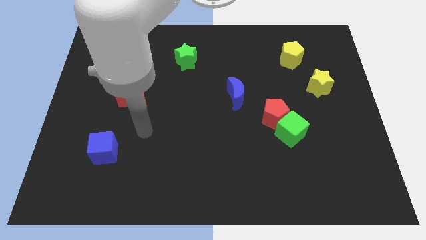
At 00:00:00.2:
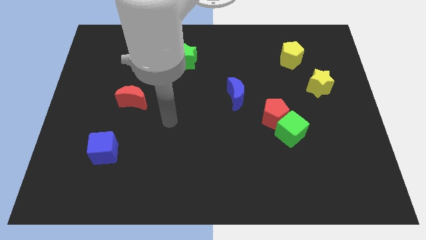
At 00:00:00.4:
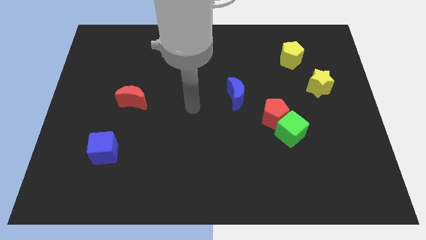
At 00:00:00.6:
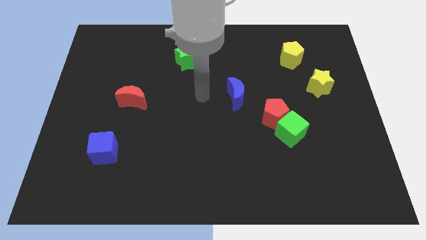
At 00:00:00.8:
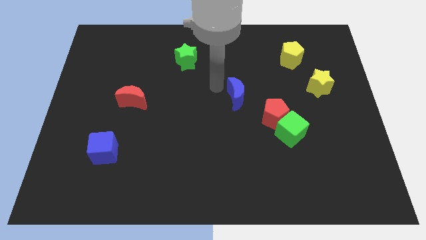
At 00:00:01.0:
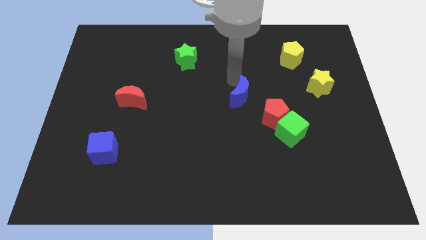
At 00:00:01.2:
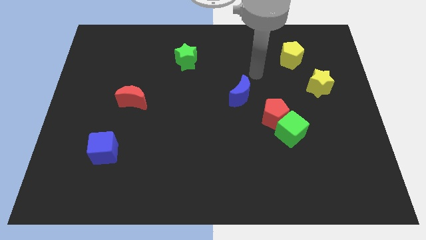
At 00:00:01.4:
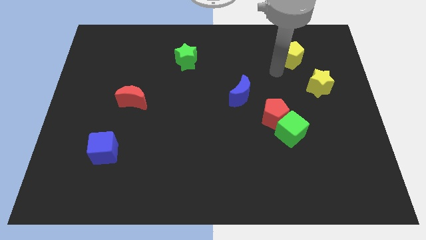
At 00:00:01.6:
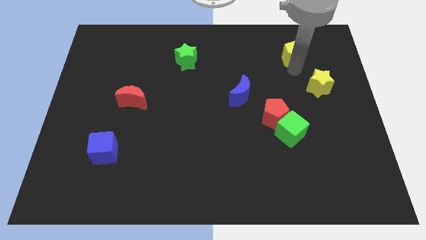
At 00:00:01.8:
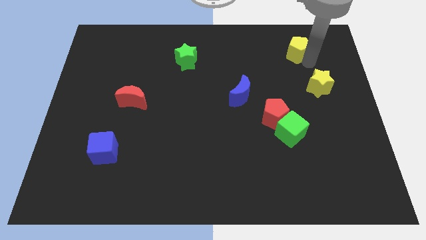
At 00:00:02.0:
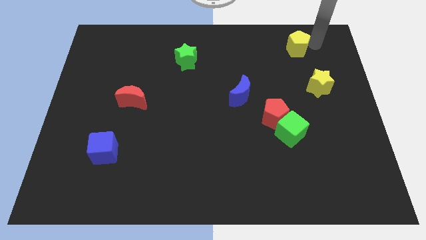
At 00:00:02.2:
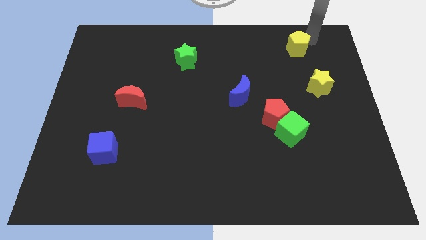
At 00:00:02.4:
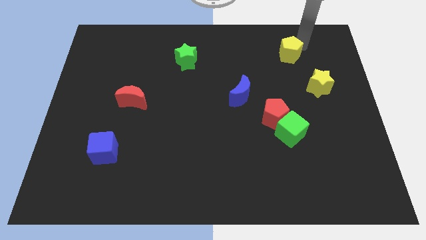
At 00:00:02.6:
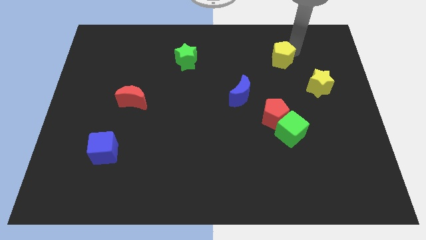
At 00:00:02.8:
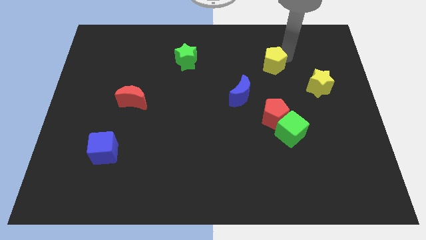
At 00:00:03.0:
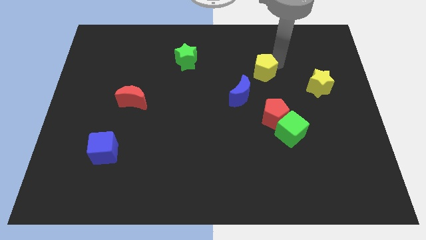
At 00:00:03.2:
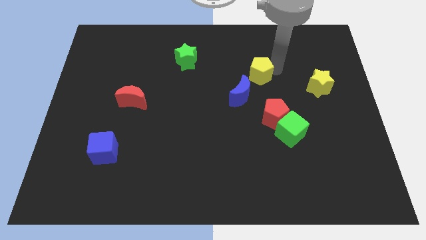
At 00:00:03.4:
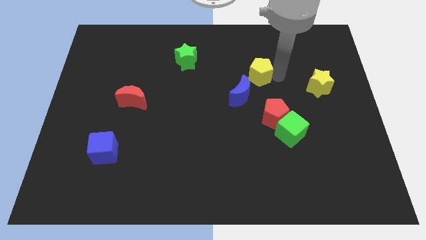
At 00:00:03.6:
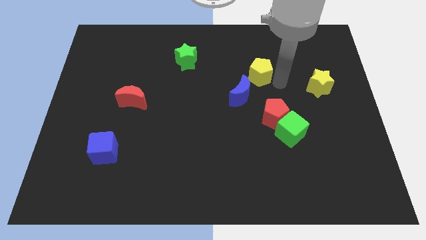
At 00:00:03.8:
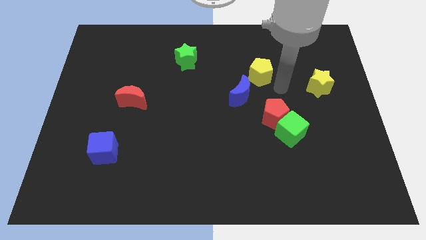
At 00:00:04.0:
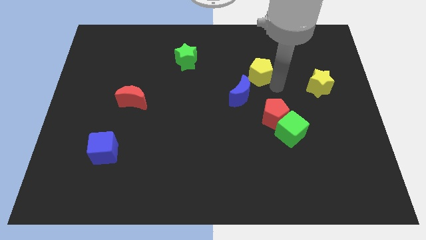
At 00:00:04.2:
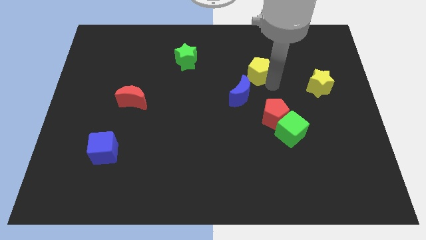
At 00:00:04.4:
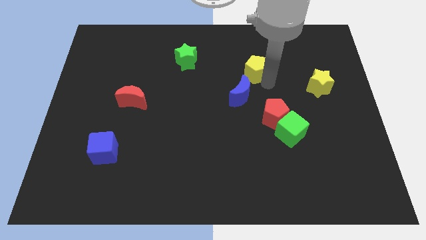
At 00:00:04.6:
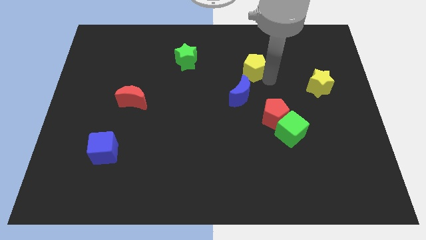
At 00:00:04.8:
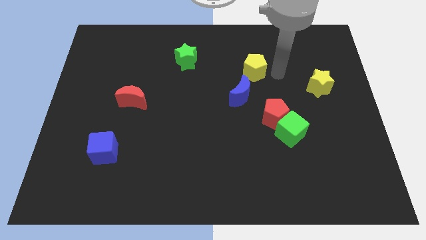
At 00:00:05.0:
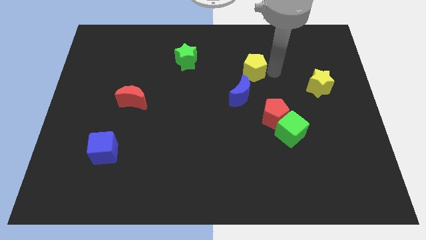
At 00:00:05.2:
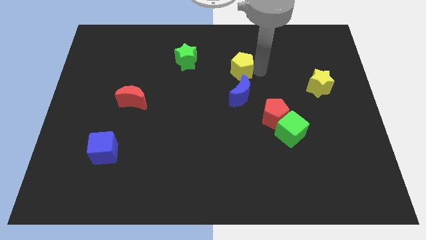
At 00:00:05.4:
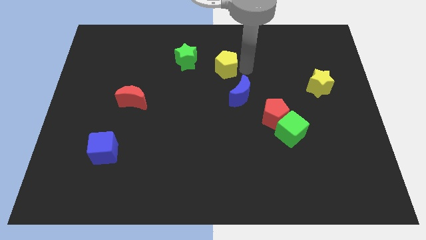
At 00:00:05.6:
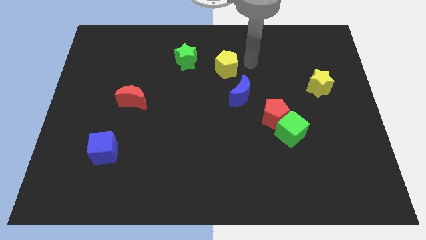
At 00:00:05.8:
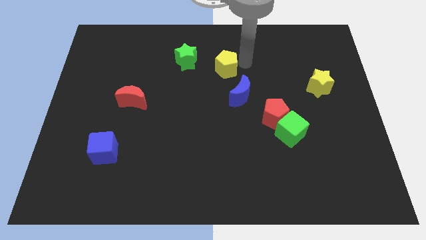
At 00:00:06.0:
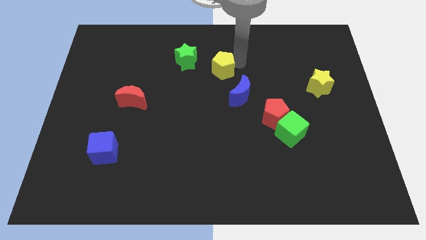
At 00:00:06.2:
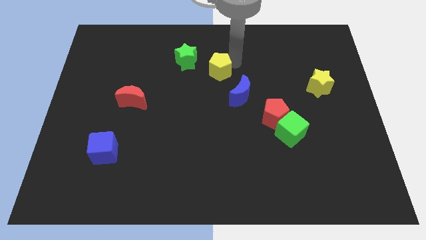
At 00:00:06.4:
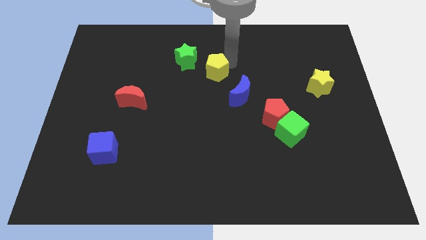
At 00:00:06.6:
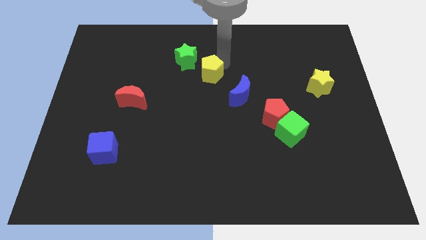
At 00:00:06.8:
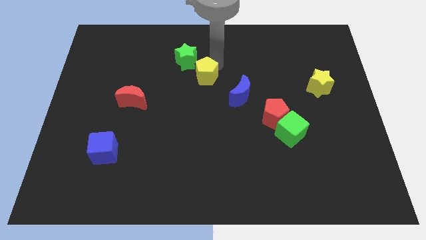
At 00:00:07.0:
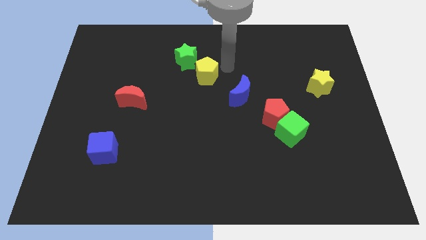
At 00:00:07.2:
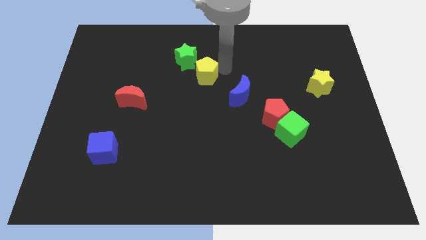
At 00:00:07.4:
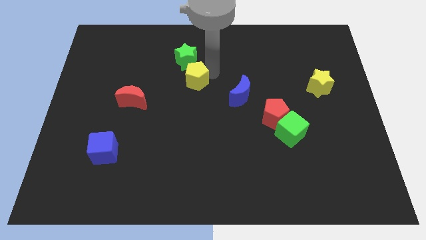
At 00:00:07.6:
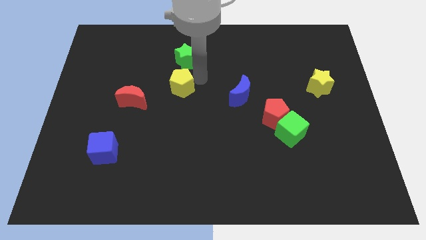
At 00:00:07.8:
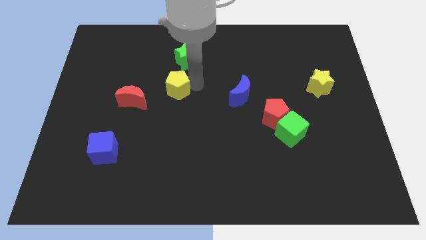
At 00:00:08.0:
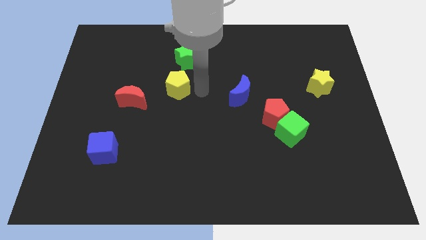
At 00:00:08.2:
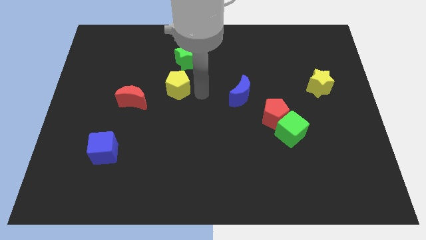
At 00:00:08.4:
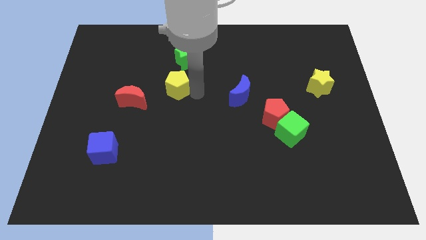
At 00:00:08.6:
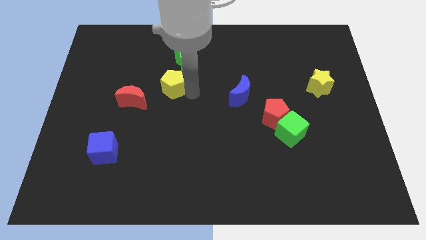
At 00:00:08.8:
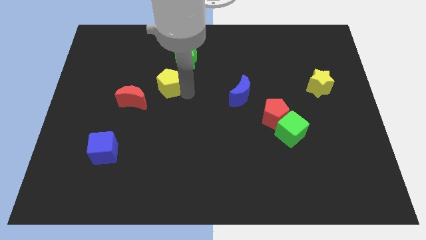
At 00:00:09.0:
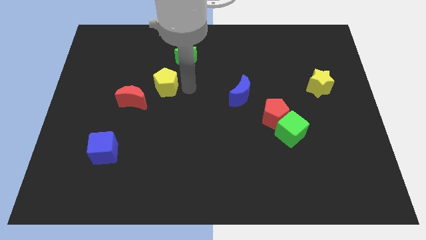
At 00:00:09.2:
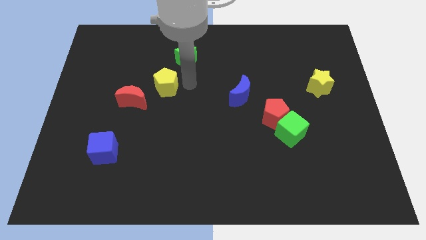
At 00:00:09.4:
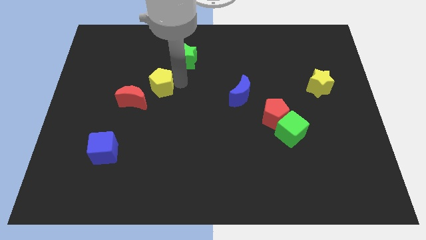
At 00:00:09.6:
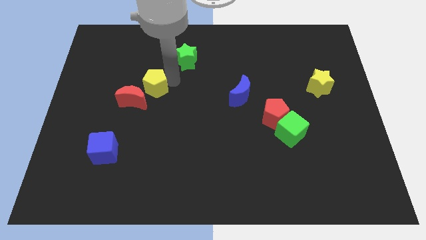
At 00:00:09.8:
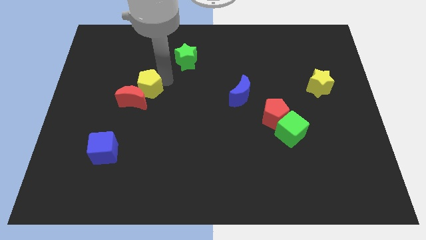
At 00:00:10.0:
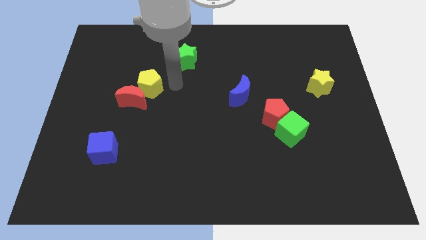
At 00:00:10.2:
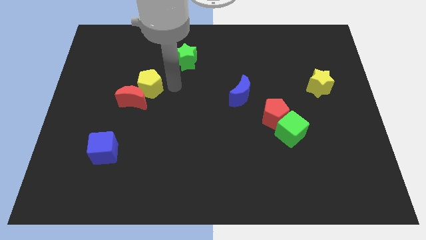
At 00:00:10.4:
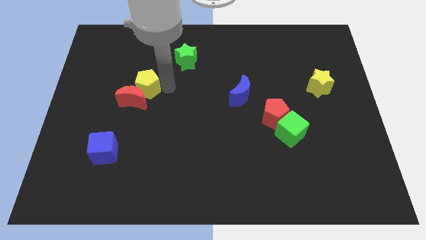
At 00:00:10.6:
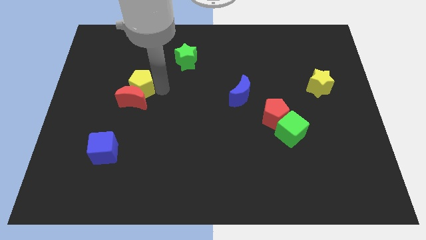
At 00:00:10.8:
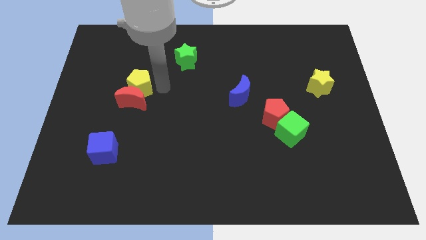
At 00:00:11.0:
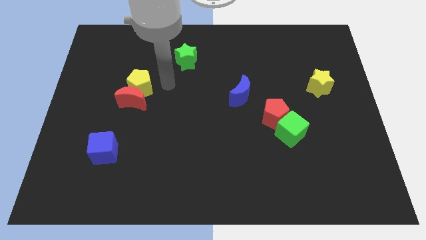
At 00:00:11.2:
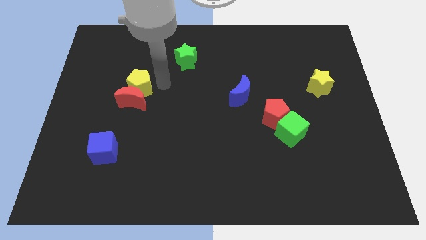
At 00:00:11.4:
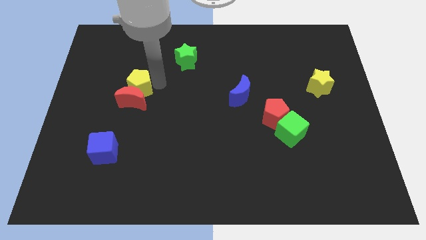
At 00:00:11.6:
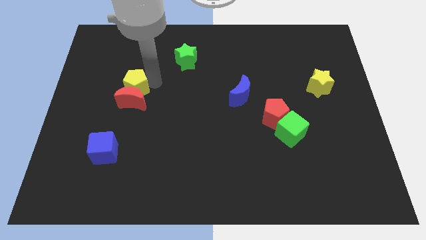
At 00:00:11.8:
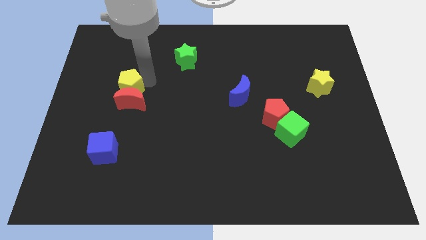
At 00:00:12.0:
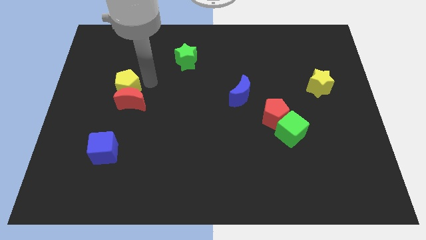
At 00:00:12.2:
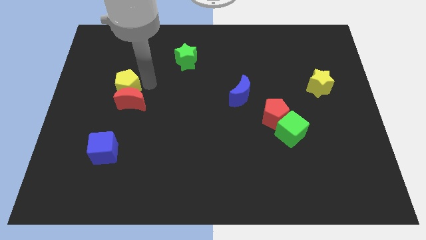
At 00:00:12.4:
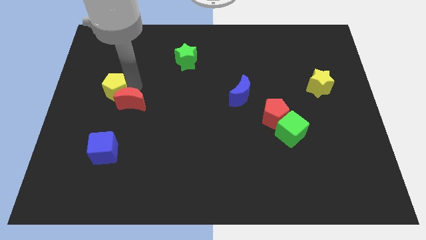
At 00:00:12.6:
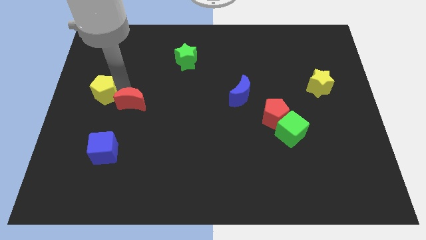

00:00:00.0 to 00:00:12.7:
move the yellow pentagon to the center left

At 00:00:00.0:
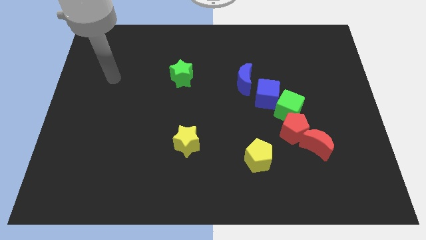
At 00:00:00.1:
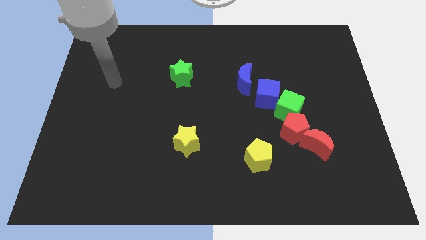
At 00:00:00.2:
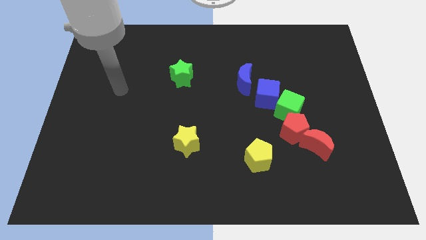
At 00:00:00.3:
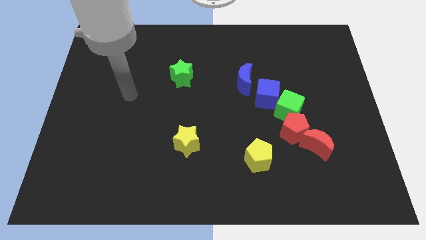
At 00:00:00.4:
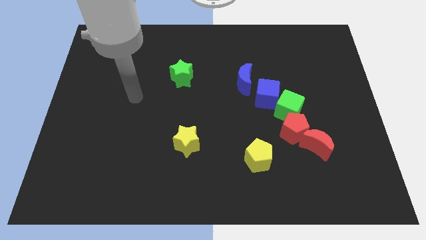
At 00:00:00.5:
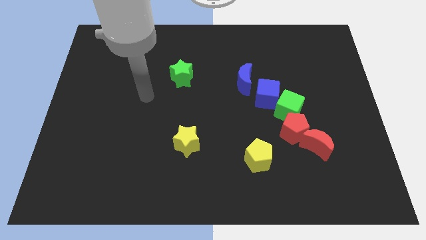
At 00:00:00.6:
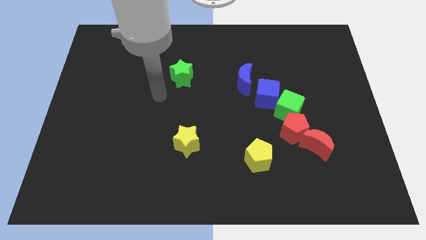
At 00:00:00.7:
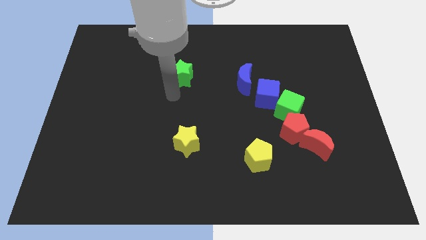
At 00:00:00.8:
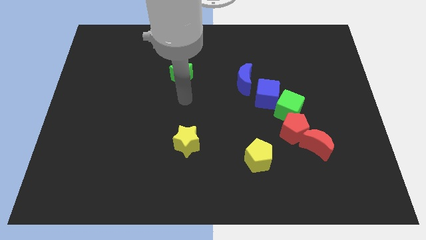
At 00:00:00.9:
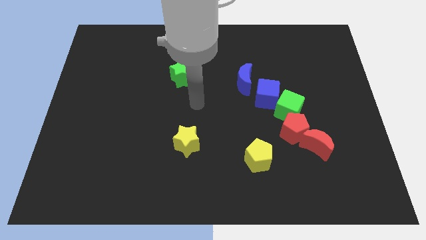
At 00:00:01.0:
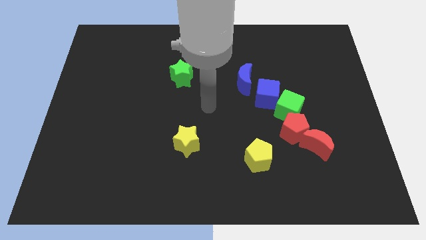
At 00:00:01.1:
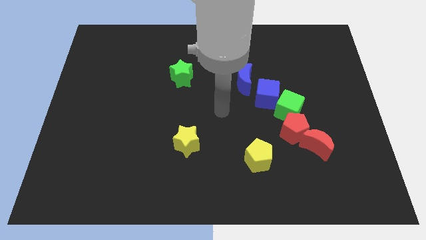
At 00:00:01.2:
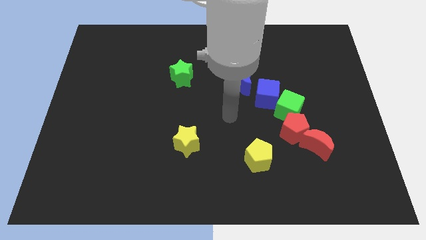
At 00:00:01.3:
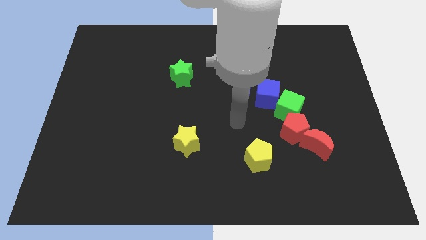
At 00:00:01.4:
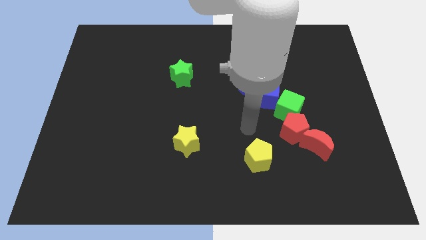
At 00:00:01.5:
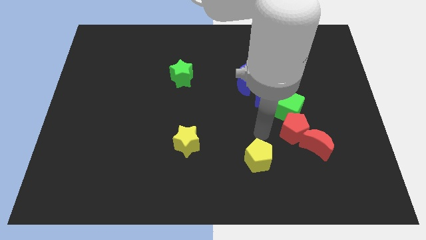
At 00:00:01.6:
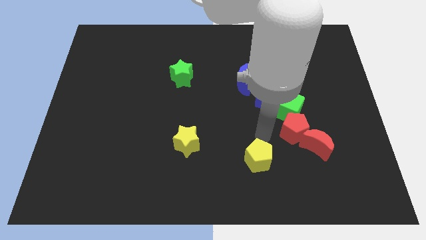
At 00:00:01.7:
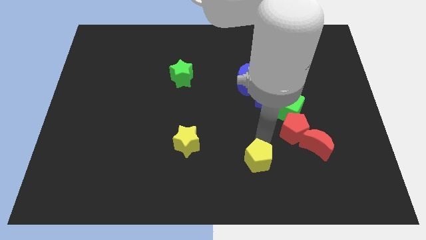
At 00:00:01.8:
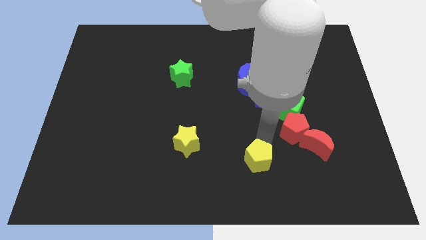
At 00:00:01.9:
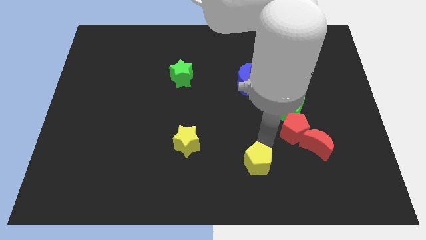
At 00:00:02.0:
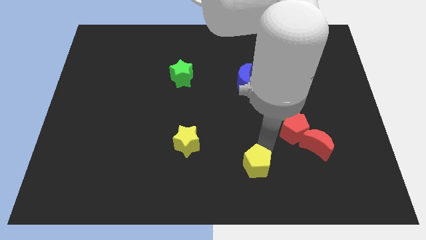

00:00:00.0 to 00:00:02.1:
push the yellow pentagon to the bottom
